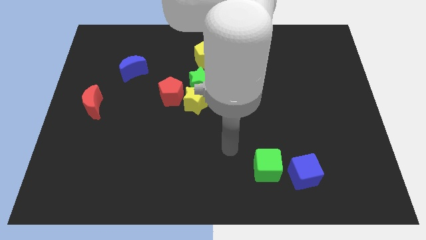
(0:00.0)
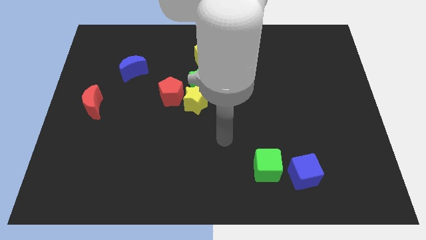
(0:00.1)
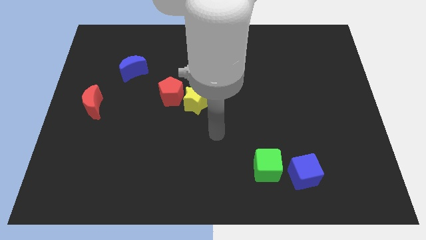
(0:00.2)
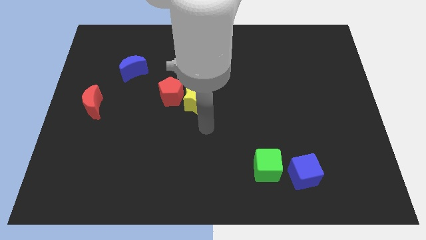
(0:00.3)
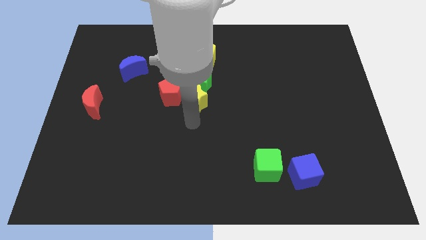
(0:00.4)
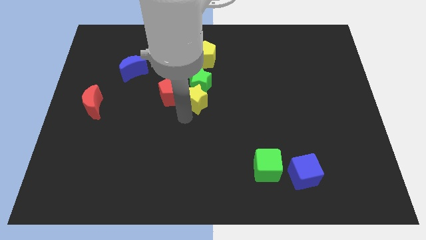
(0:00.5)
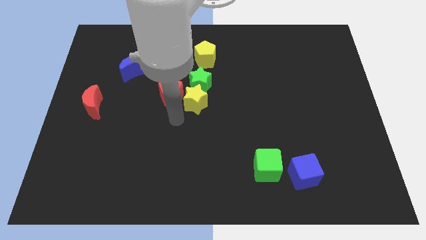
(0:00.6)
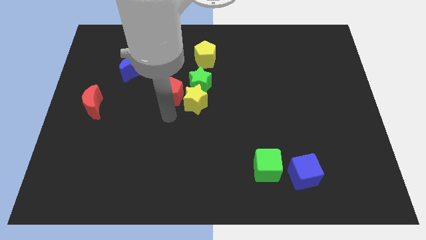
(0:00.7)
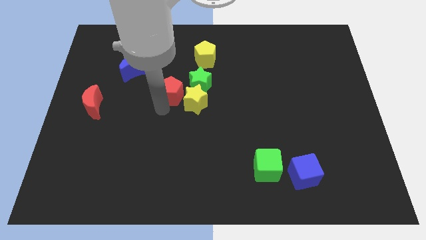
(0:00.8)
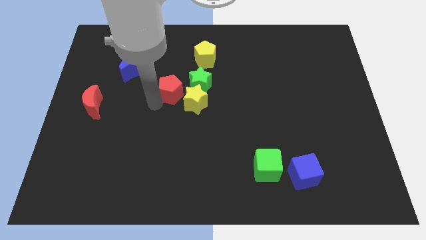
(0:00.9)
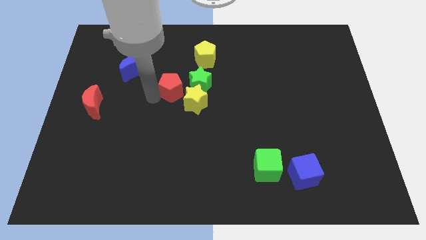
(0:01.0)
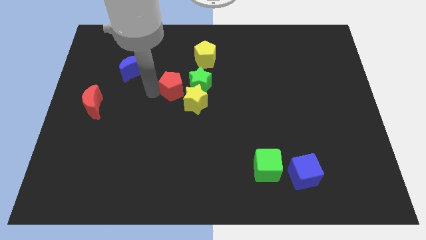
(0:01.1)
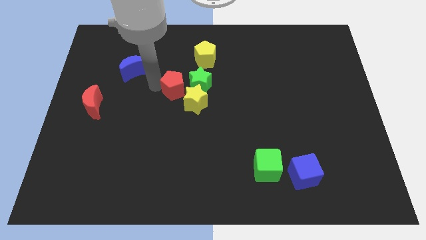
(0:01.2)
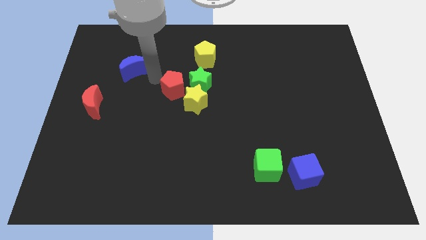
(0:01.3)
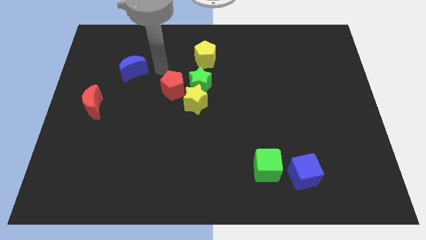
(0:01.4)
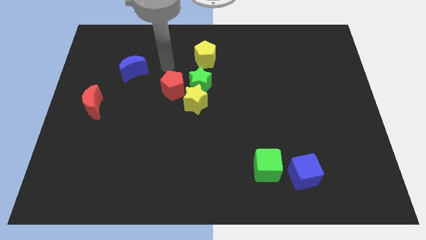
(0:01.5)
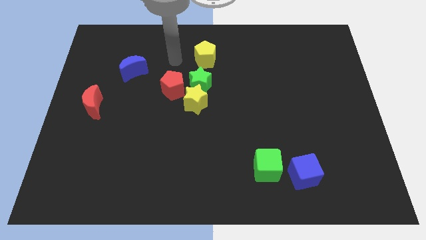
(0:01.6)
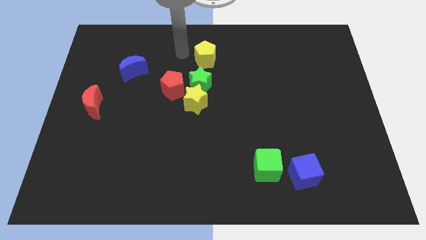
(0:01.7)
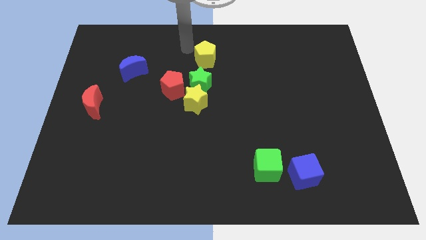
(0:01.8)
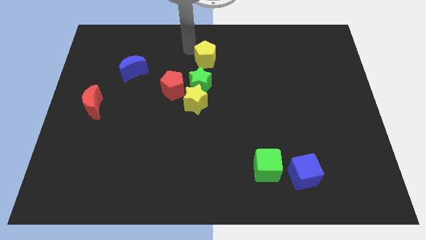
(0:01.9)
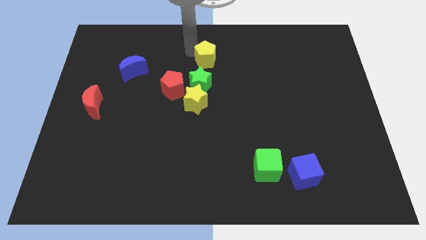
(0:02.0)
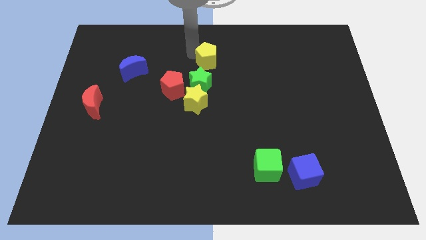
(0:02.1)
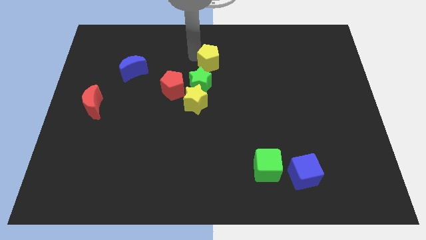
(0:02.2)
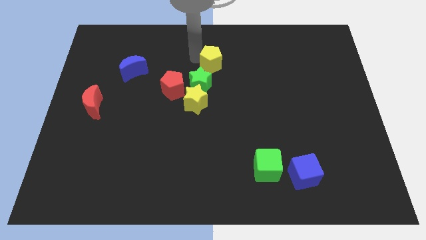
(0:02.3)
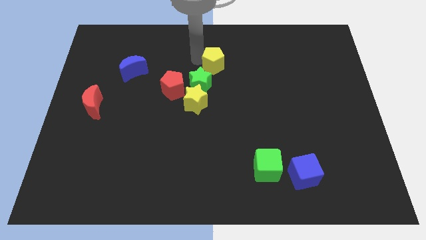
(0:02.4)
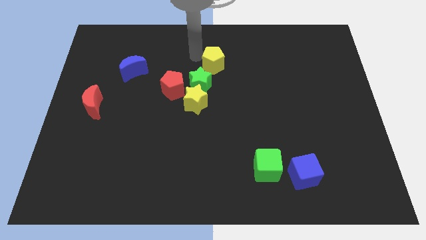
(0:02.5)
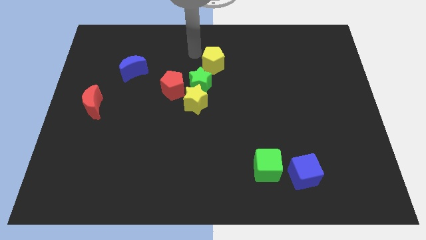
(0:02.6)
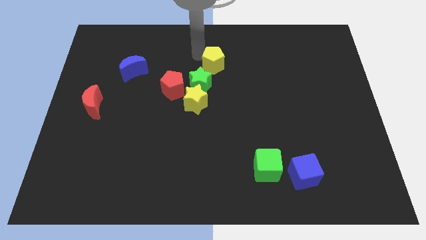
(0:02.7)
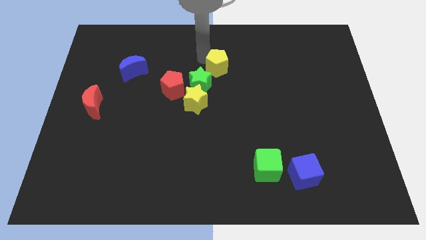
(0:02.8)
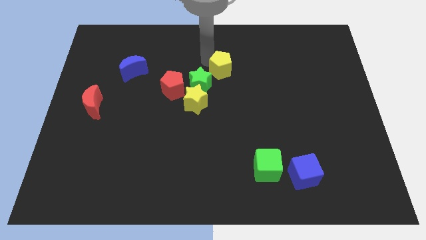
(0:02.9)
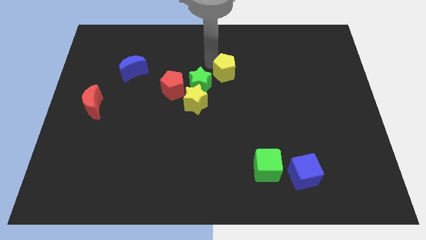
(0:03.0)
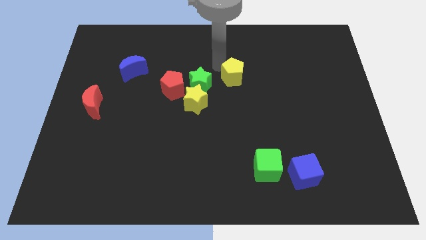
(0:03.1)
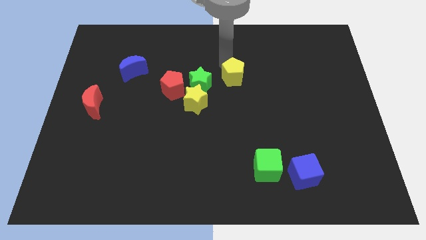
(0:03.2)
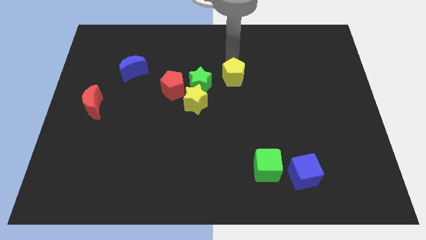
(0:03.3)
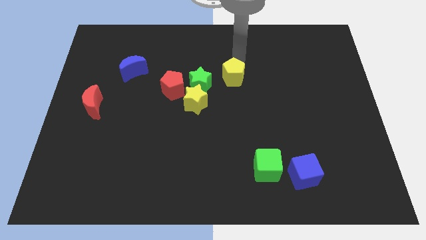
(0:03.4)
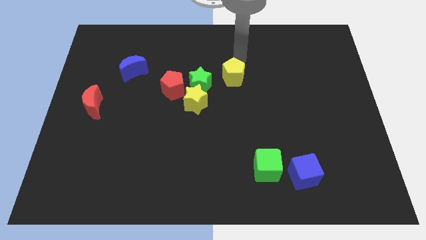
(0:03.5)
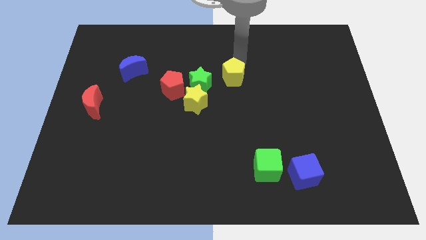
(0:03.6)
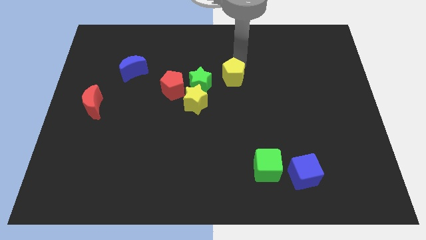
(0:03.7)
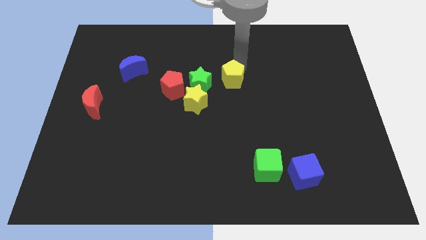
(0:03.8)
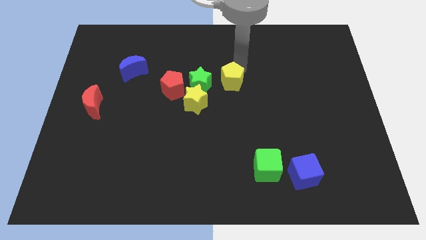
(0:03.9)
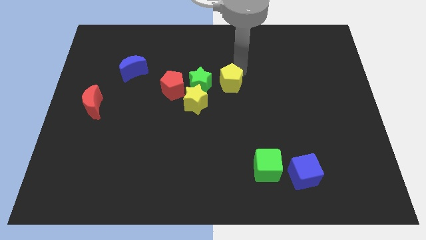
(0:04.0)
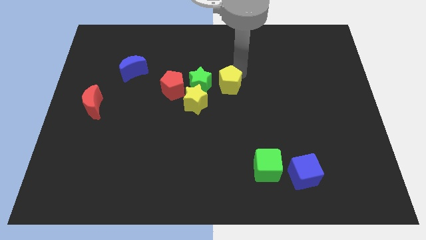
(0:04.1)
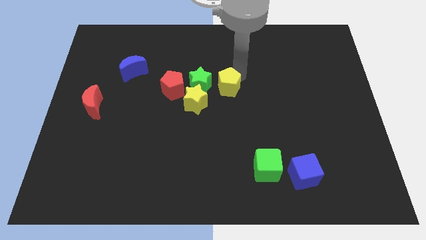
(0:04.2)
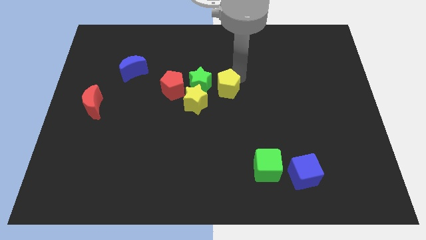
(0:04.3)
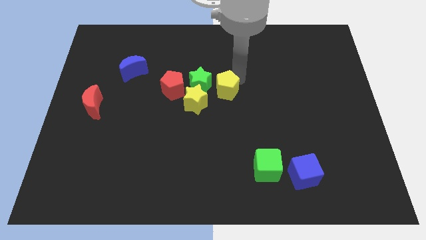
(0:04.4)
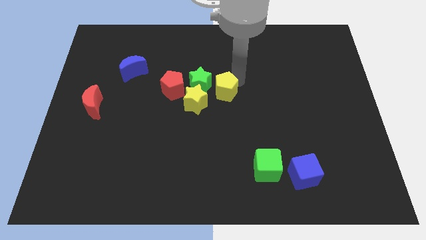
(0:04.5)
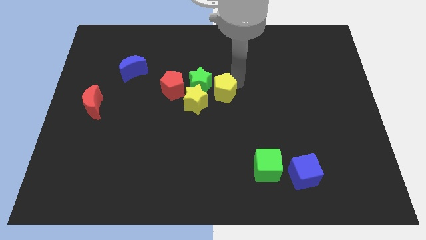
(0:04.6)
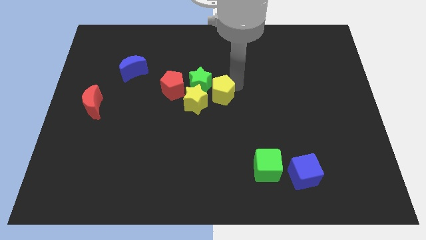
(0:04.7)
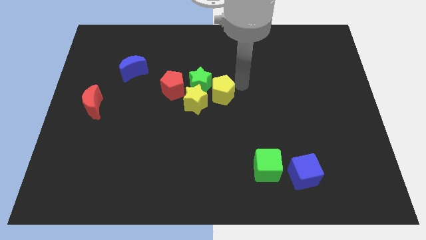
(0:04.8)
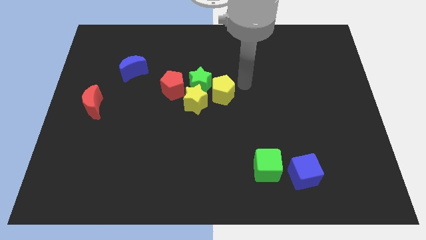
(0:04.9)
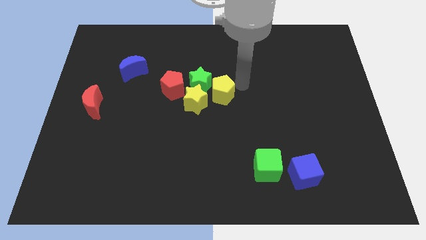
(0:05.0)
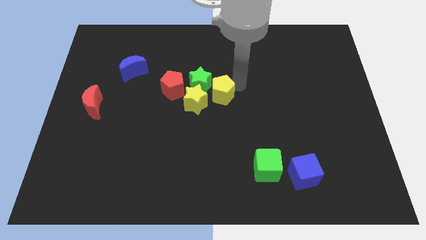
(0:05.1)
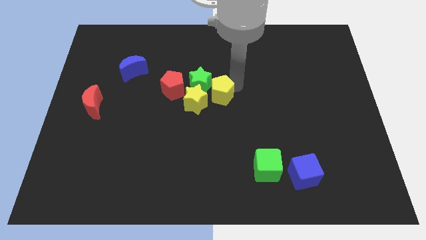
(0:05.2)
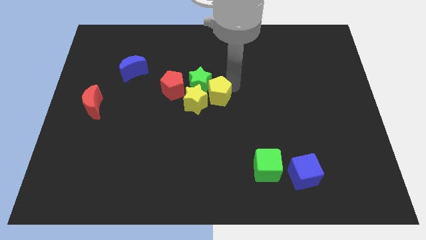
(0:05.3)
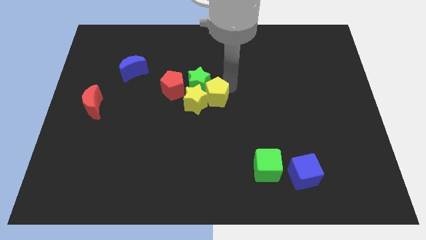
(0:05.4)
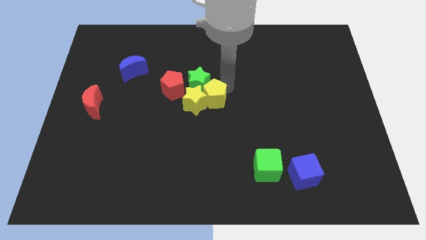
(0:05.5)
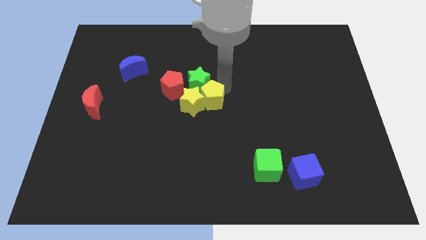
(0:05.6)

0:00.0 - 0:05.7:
slide the yellow pentagon to the bottom right side of the red pentagon

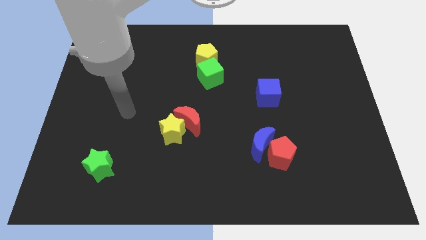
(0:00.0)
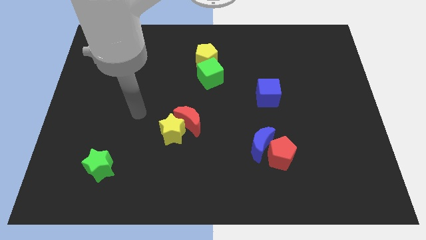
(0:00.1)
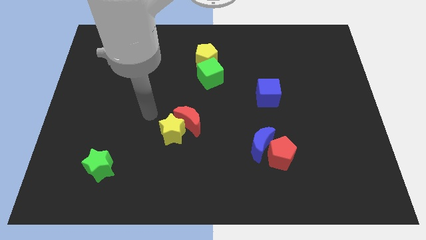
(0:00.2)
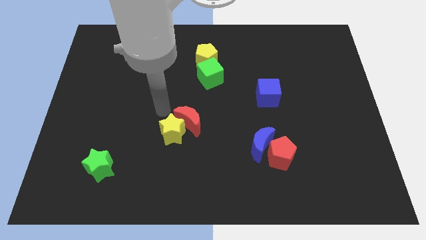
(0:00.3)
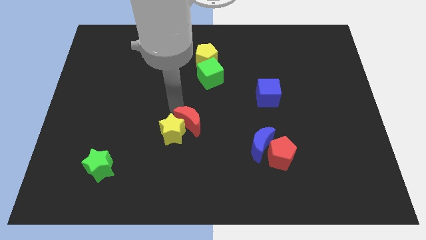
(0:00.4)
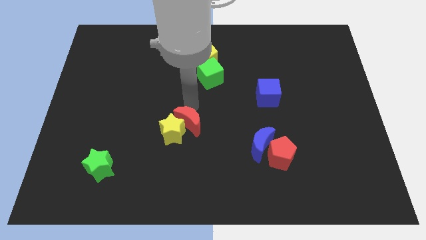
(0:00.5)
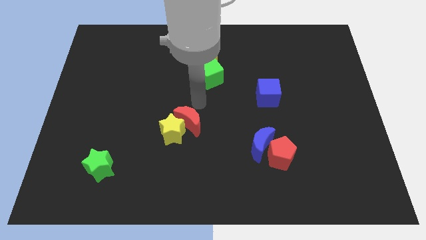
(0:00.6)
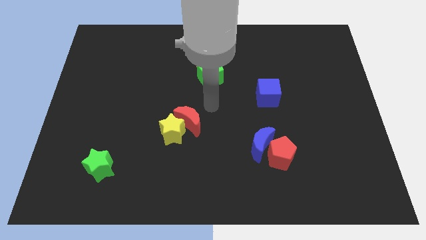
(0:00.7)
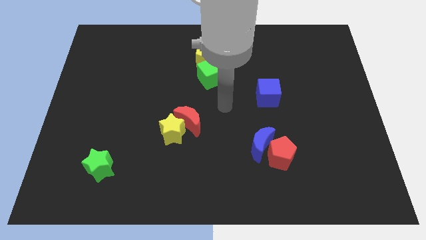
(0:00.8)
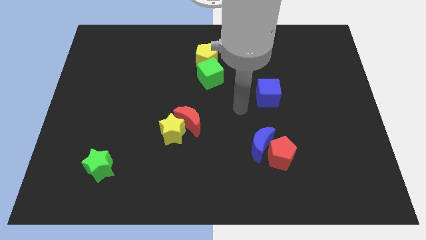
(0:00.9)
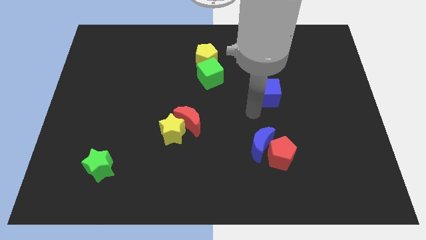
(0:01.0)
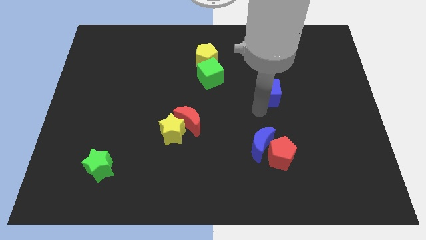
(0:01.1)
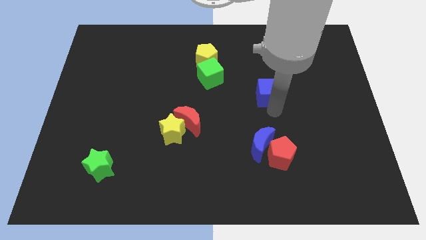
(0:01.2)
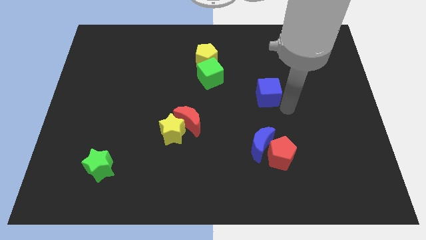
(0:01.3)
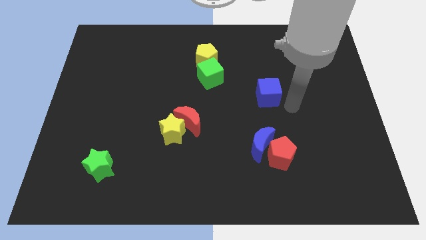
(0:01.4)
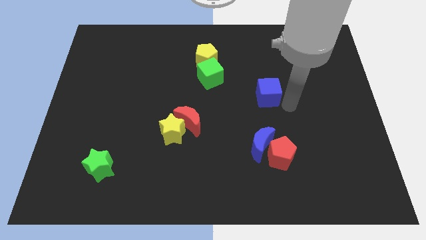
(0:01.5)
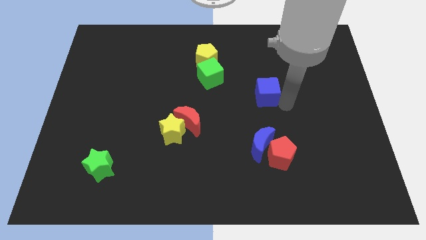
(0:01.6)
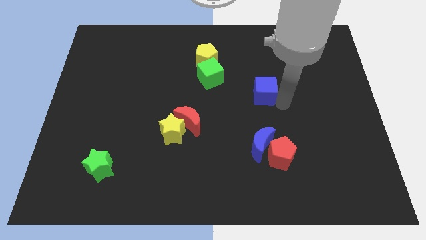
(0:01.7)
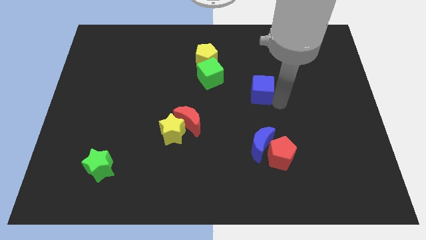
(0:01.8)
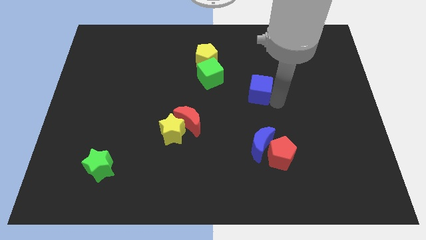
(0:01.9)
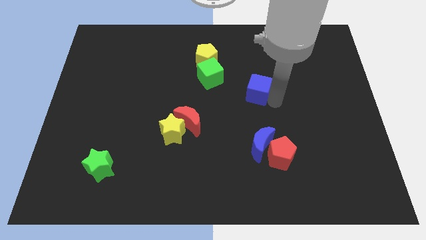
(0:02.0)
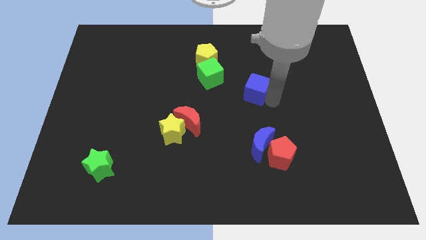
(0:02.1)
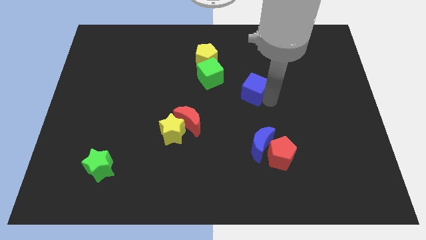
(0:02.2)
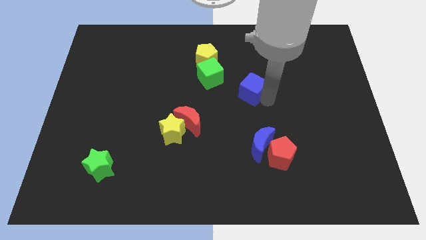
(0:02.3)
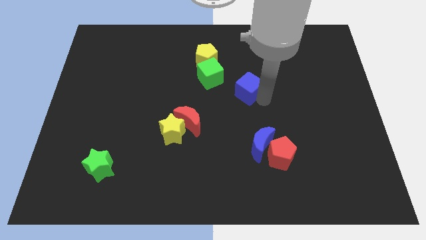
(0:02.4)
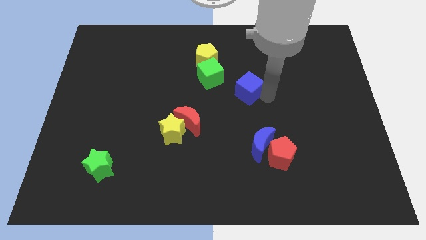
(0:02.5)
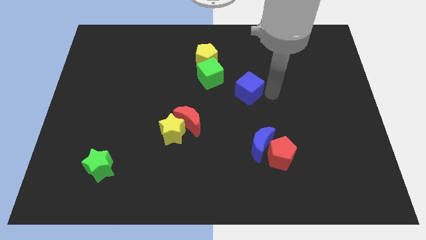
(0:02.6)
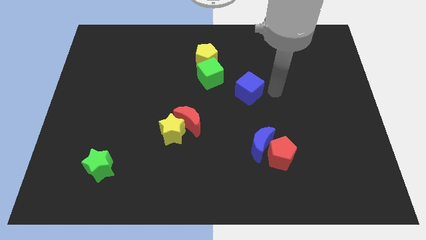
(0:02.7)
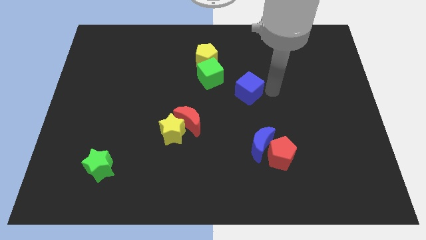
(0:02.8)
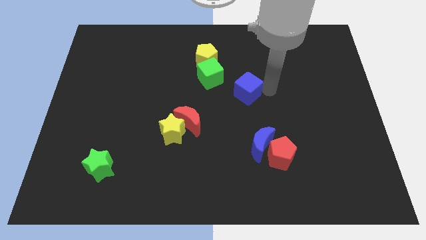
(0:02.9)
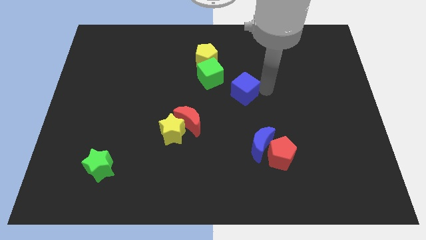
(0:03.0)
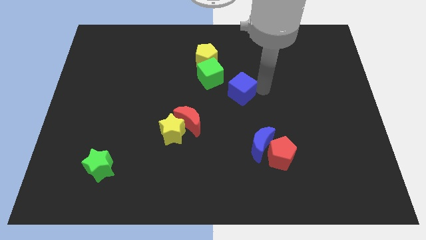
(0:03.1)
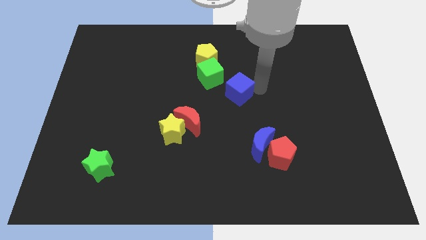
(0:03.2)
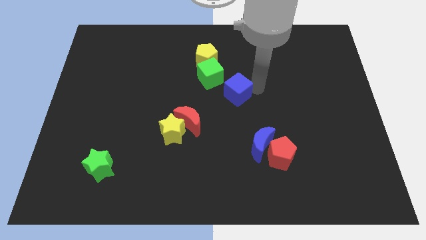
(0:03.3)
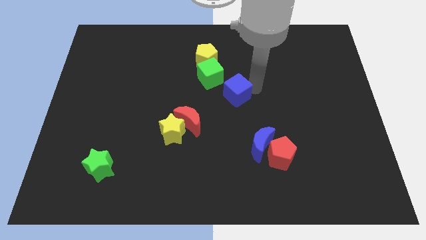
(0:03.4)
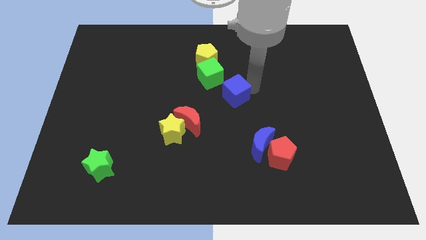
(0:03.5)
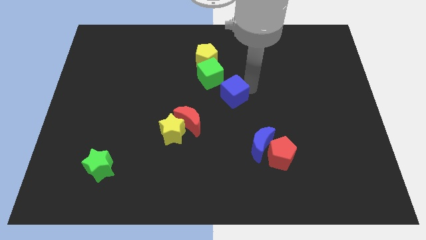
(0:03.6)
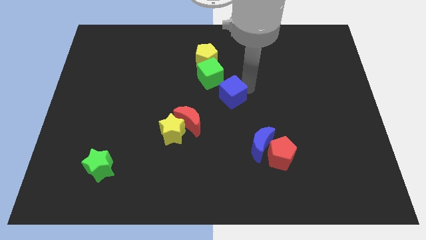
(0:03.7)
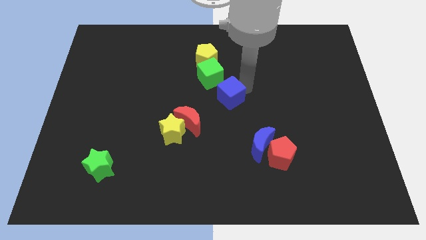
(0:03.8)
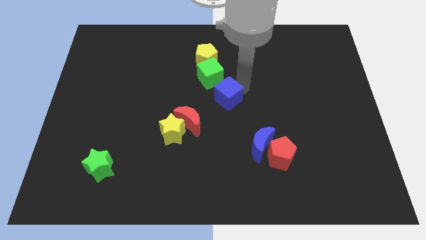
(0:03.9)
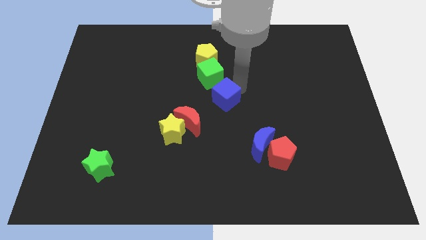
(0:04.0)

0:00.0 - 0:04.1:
put the blue cube below the yellow pentagon
